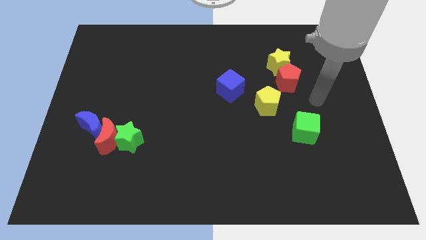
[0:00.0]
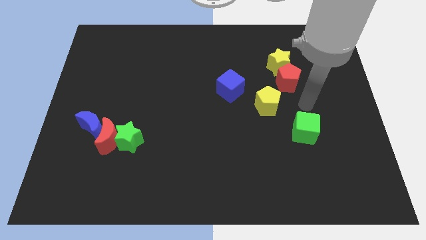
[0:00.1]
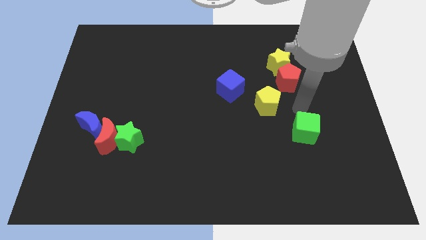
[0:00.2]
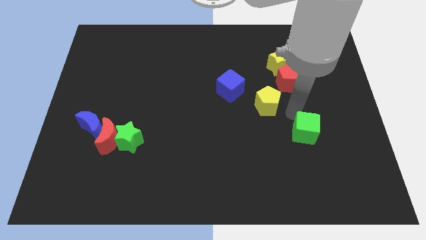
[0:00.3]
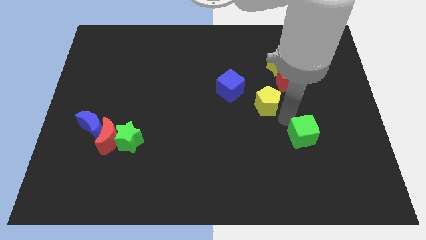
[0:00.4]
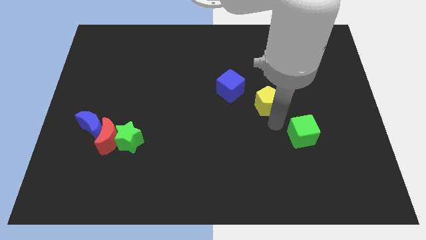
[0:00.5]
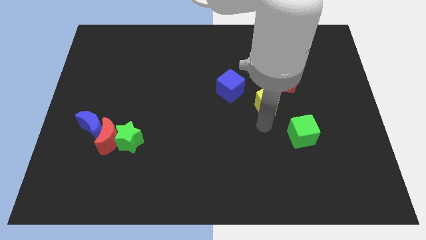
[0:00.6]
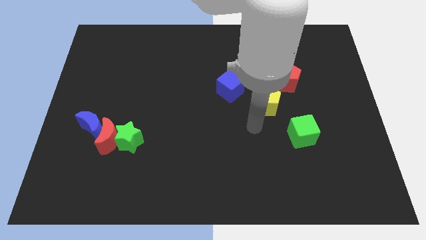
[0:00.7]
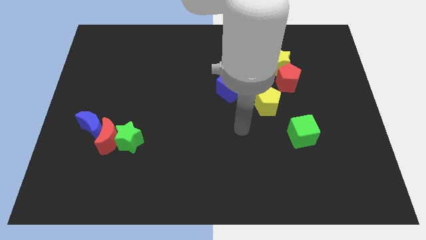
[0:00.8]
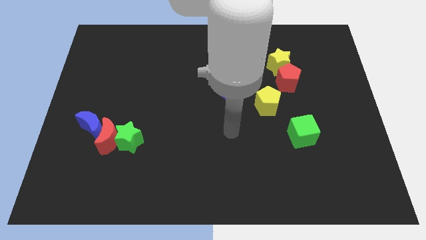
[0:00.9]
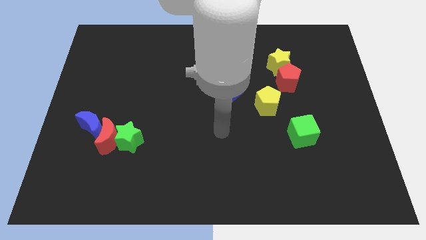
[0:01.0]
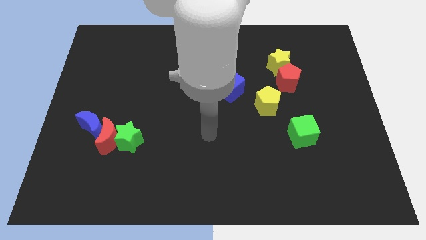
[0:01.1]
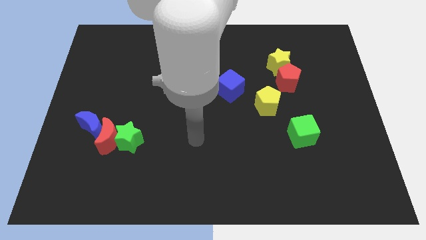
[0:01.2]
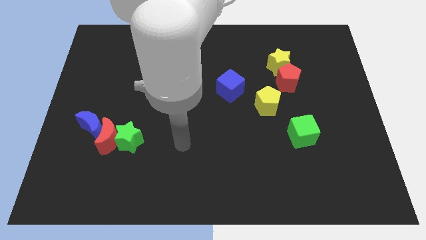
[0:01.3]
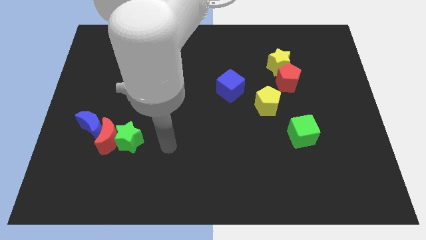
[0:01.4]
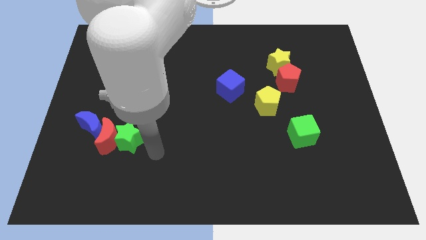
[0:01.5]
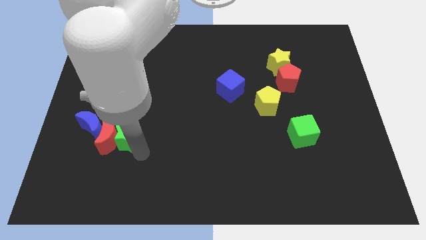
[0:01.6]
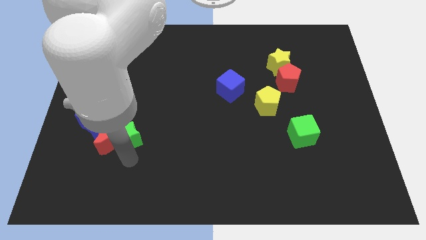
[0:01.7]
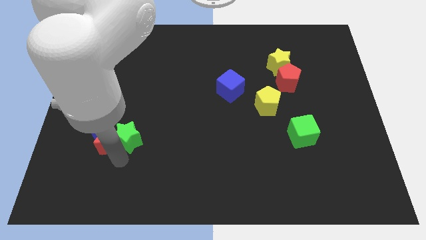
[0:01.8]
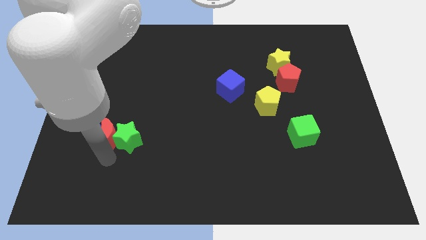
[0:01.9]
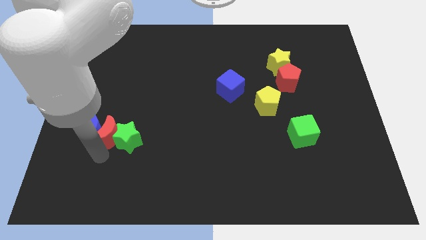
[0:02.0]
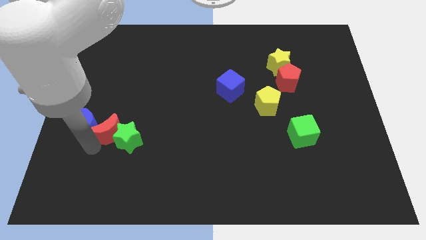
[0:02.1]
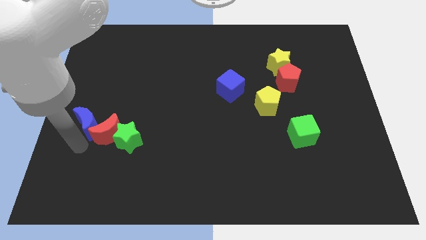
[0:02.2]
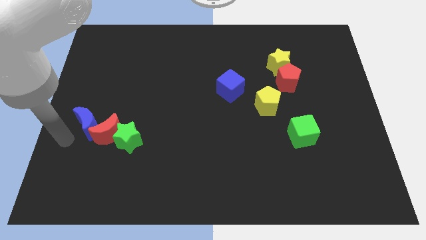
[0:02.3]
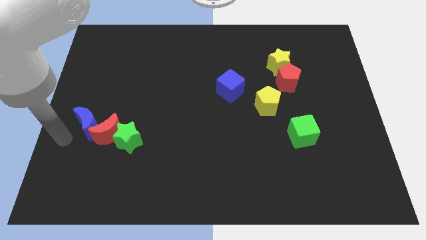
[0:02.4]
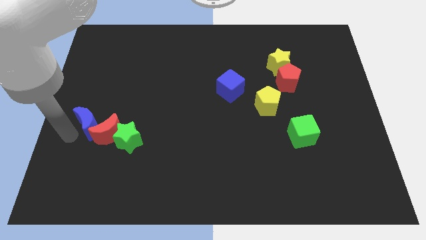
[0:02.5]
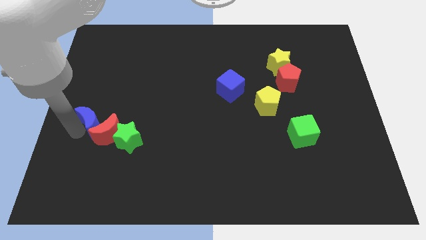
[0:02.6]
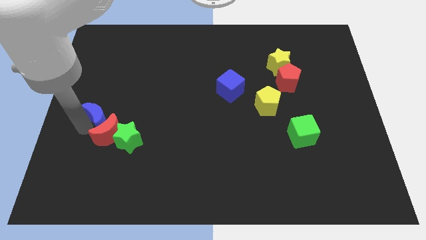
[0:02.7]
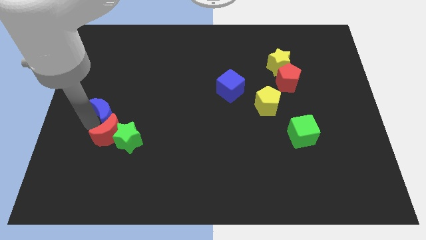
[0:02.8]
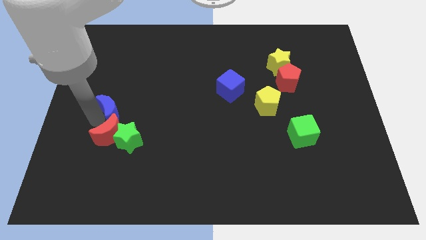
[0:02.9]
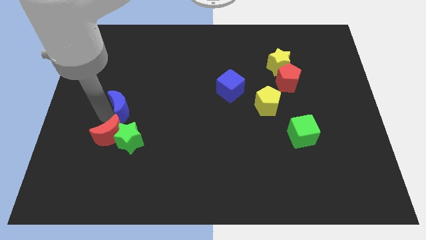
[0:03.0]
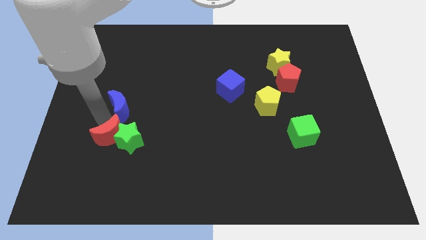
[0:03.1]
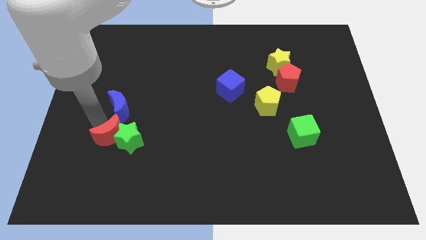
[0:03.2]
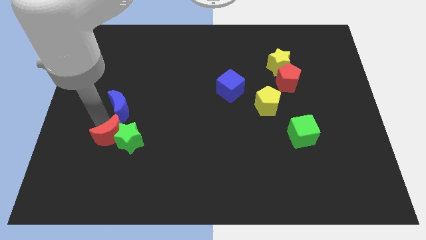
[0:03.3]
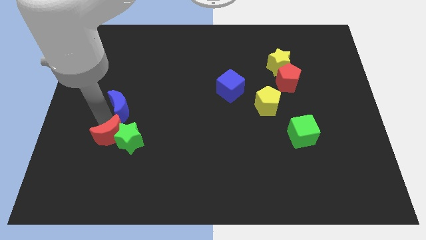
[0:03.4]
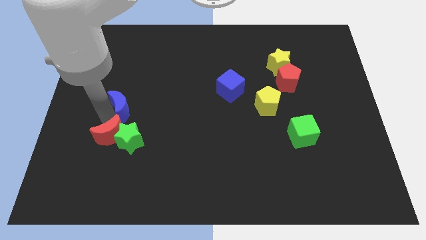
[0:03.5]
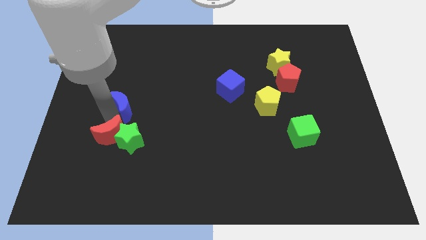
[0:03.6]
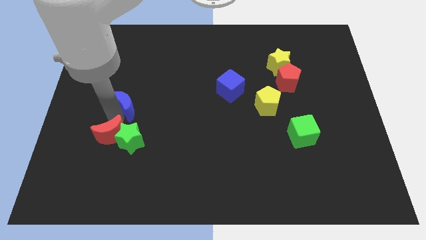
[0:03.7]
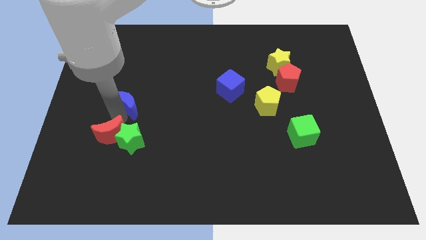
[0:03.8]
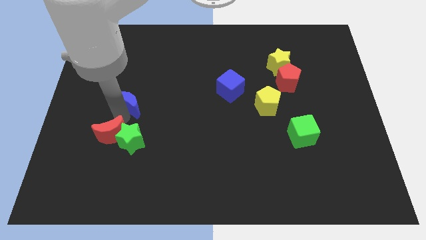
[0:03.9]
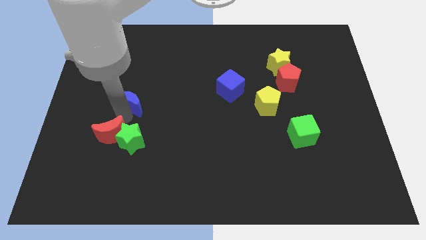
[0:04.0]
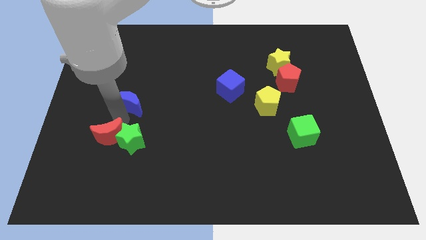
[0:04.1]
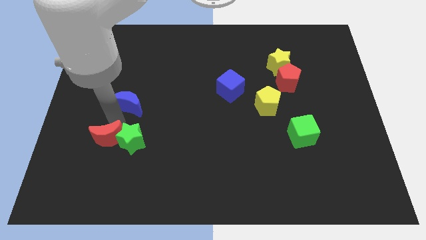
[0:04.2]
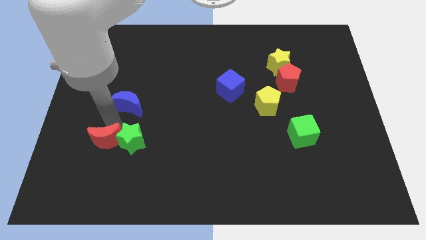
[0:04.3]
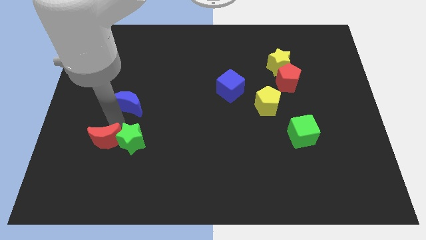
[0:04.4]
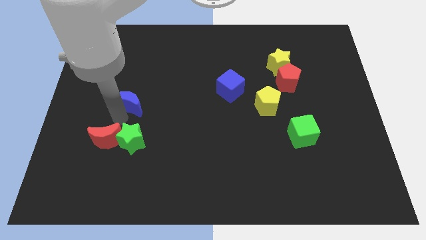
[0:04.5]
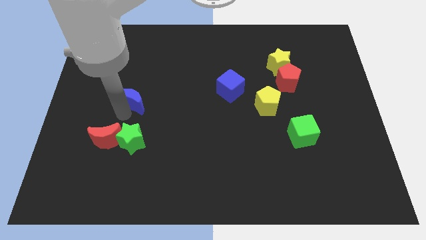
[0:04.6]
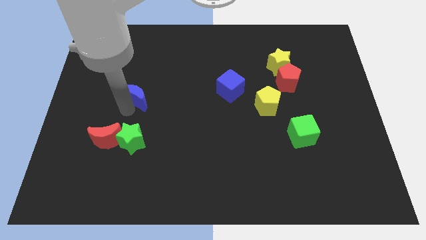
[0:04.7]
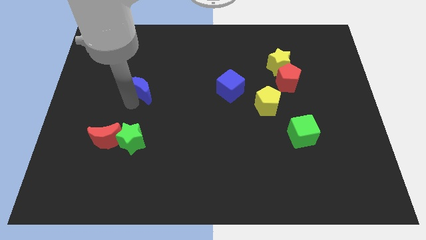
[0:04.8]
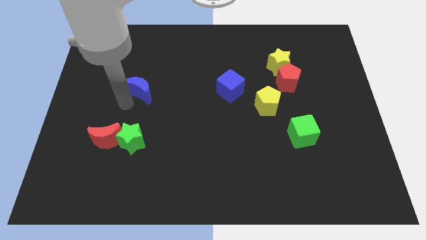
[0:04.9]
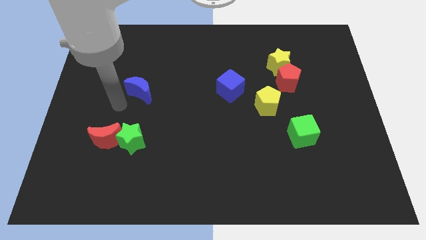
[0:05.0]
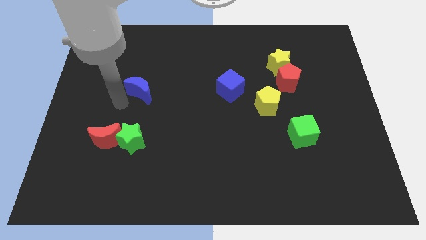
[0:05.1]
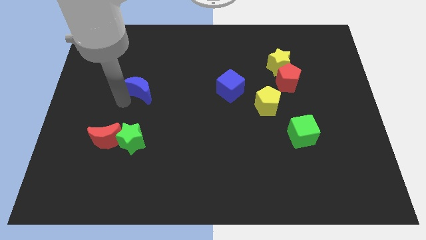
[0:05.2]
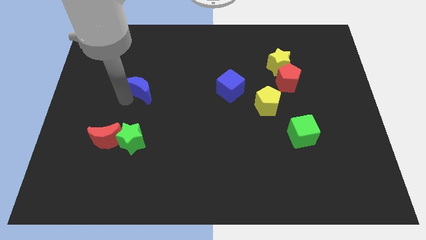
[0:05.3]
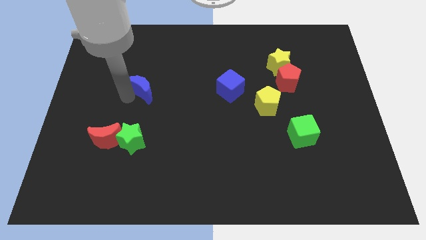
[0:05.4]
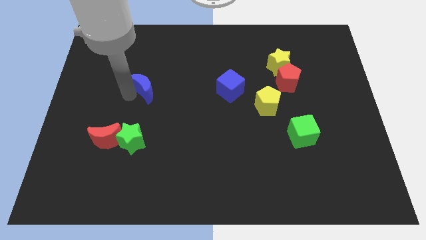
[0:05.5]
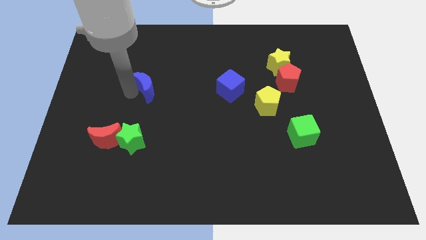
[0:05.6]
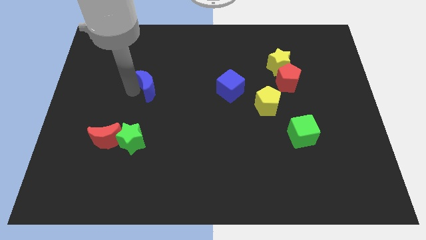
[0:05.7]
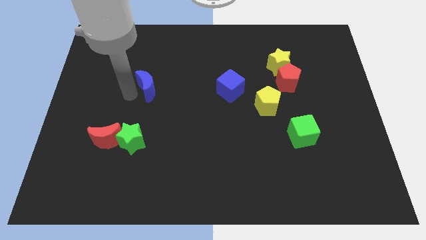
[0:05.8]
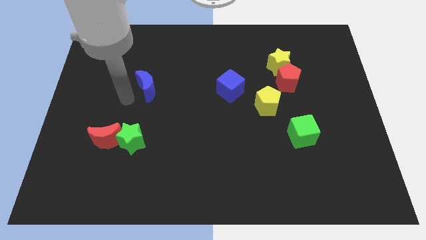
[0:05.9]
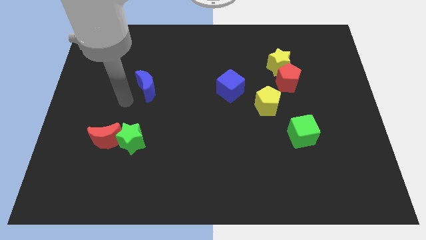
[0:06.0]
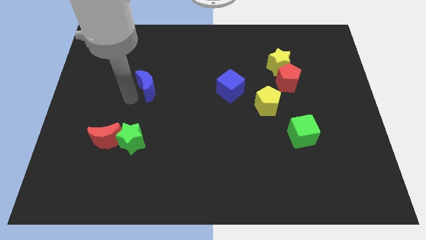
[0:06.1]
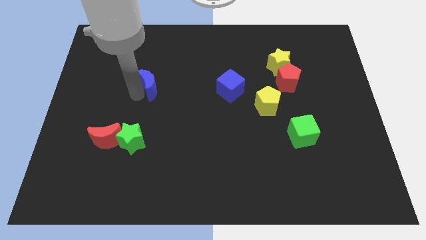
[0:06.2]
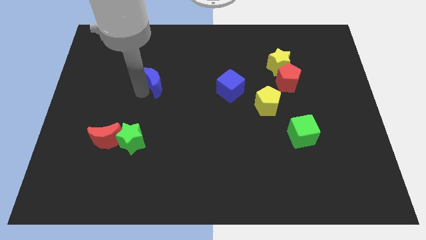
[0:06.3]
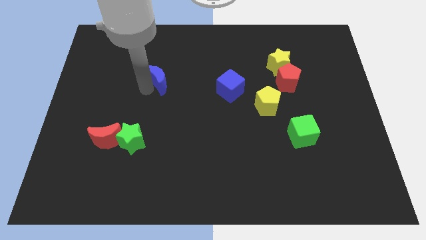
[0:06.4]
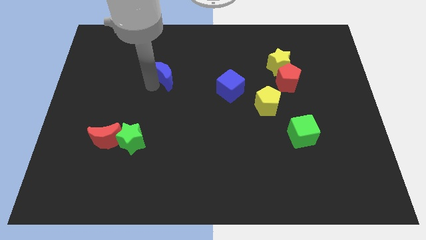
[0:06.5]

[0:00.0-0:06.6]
push the blue moon upwards and then to the right

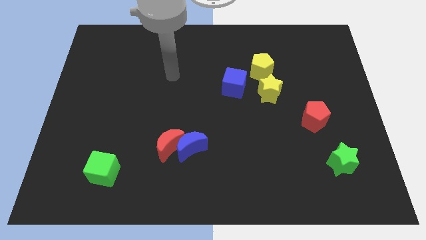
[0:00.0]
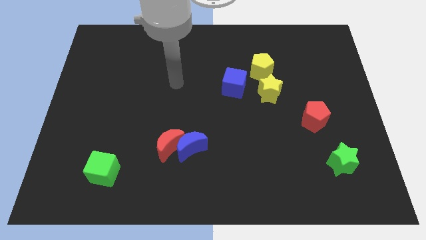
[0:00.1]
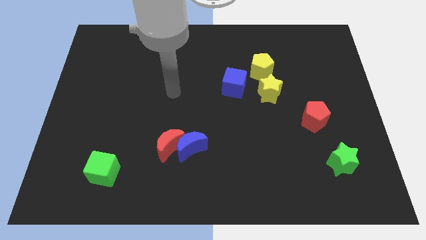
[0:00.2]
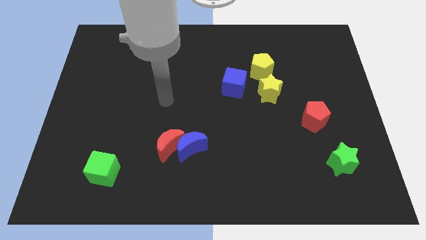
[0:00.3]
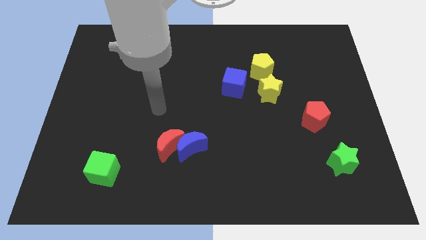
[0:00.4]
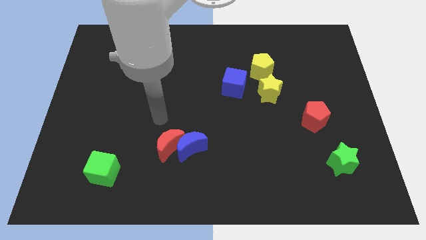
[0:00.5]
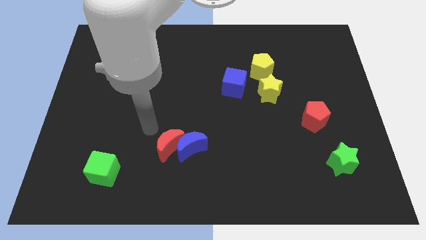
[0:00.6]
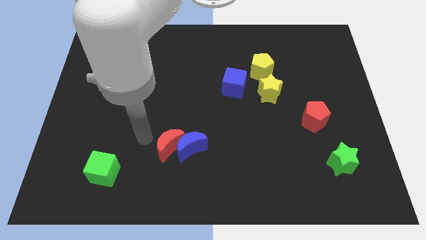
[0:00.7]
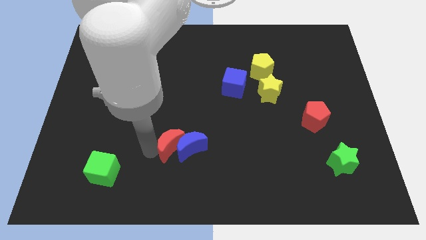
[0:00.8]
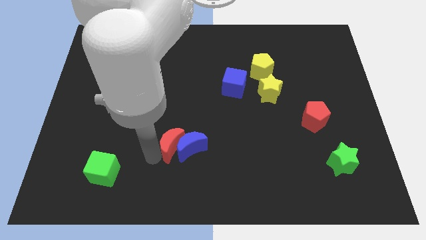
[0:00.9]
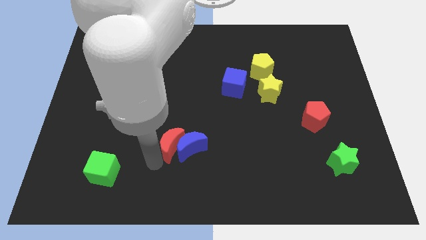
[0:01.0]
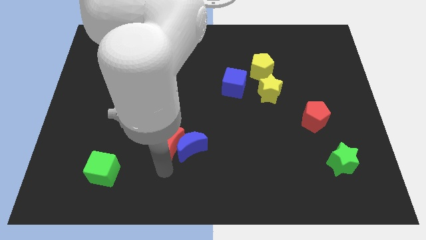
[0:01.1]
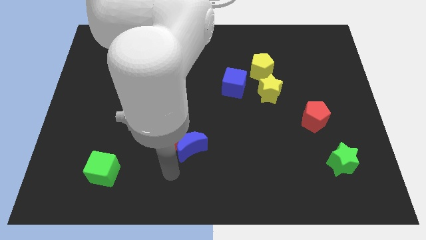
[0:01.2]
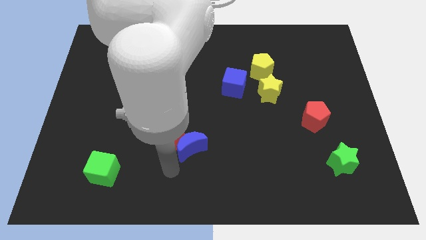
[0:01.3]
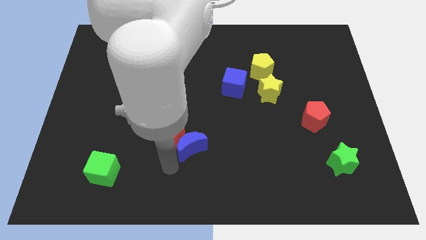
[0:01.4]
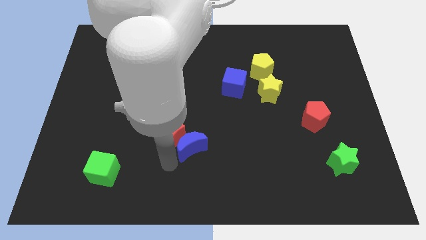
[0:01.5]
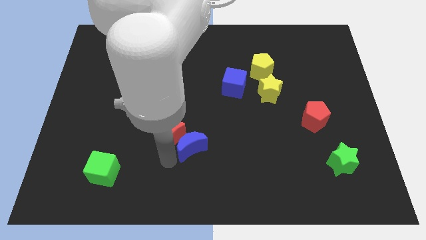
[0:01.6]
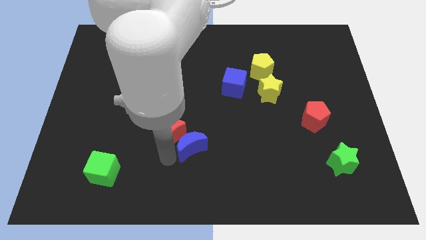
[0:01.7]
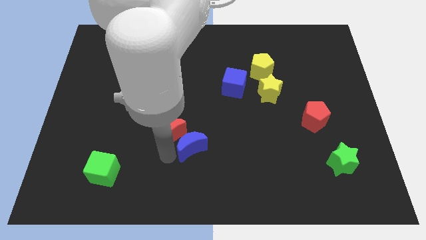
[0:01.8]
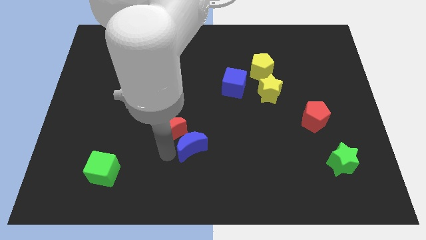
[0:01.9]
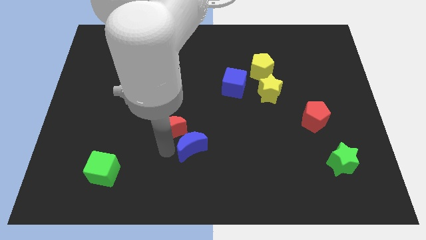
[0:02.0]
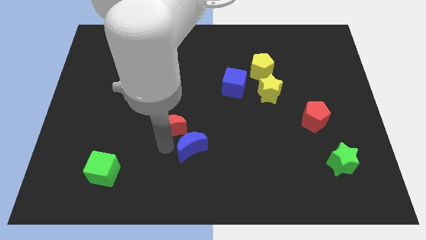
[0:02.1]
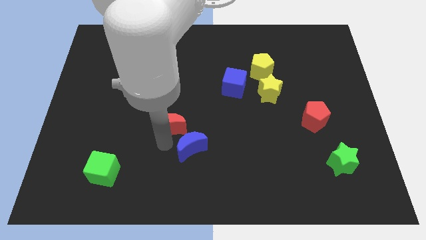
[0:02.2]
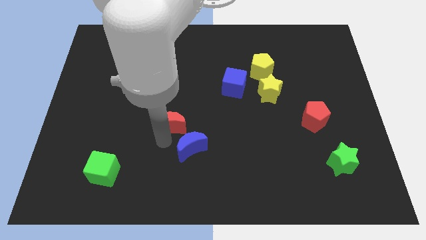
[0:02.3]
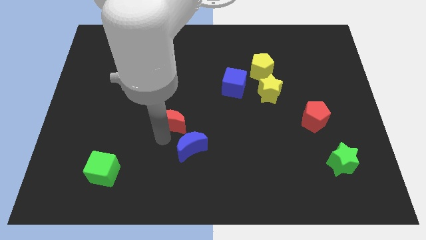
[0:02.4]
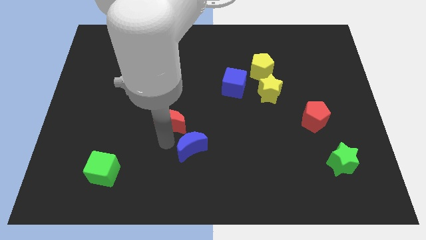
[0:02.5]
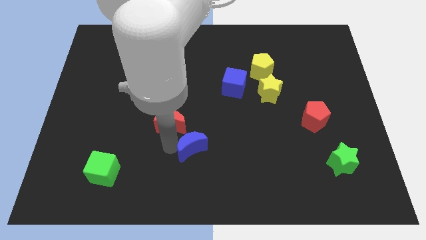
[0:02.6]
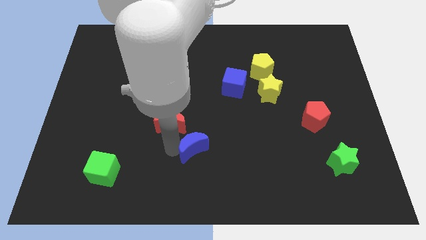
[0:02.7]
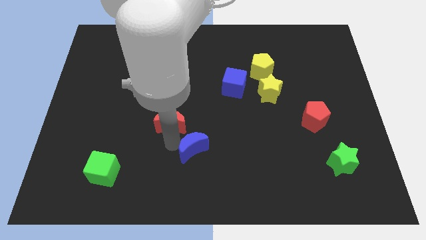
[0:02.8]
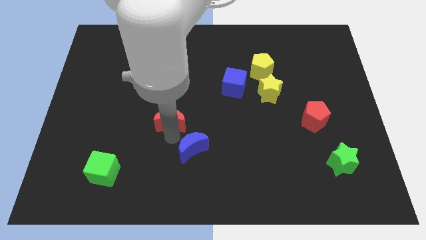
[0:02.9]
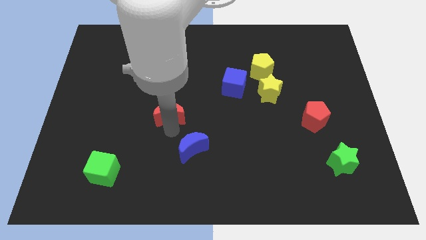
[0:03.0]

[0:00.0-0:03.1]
push the red moon a little bit up
